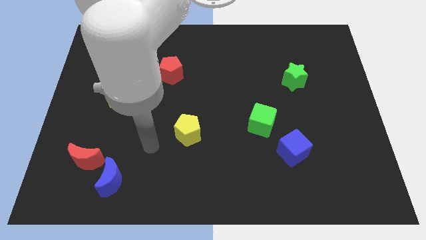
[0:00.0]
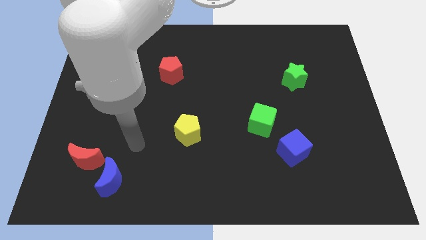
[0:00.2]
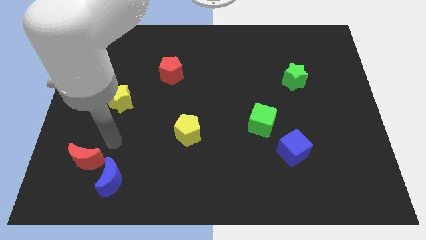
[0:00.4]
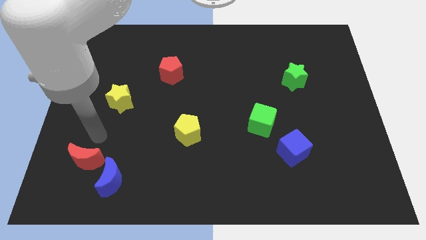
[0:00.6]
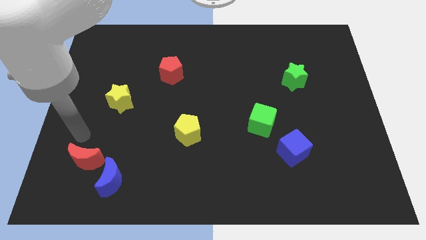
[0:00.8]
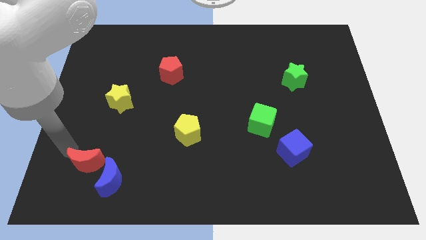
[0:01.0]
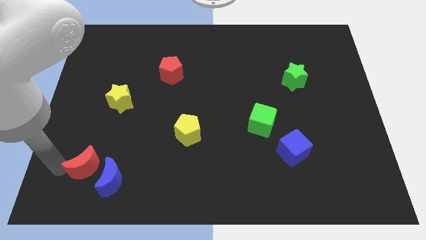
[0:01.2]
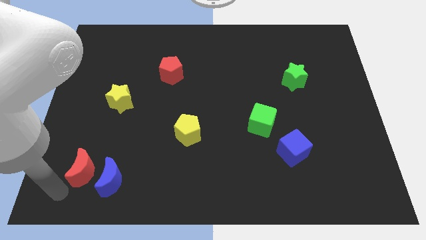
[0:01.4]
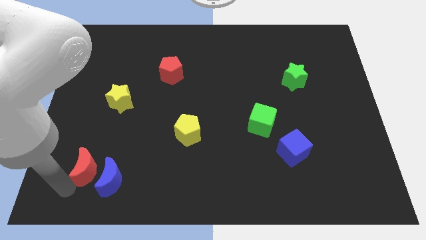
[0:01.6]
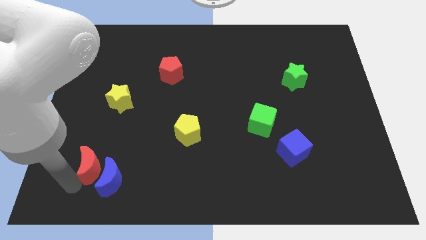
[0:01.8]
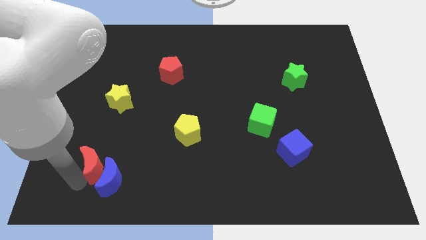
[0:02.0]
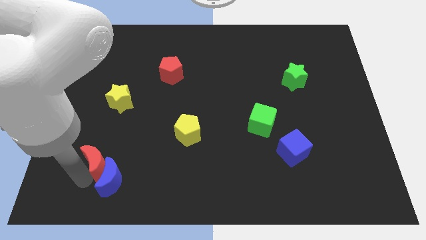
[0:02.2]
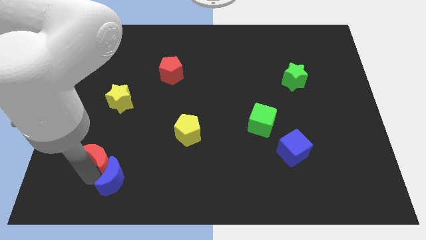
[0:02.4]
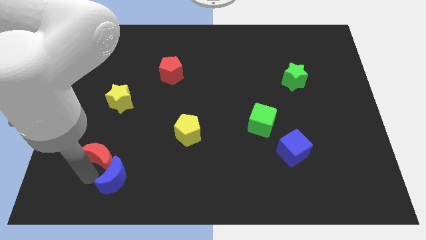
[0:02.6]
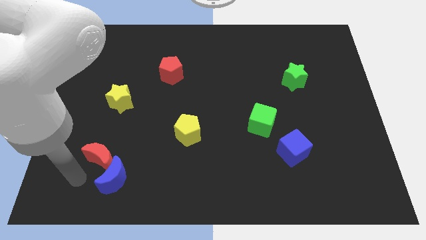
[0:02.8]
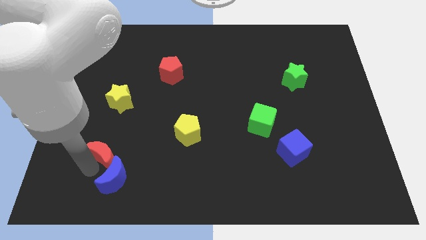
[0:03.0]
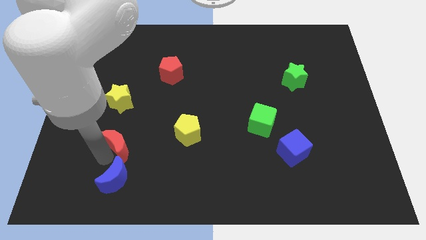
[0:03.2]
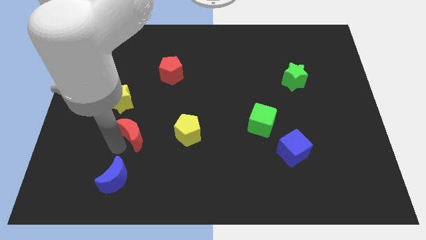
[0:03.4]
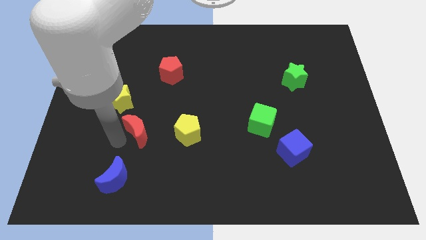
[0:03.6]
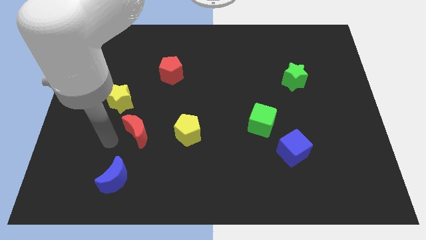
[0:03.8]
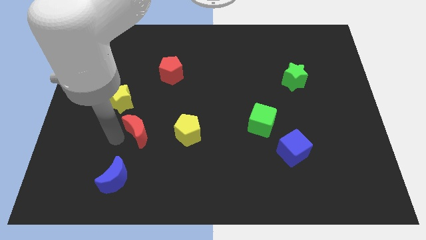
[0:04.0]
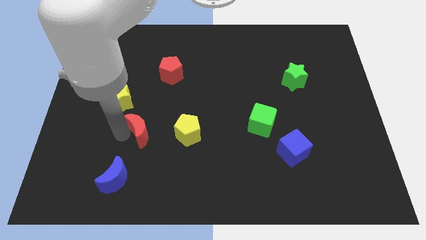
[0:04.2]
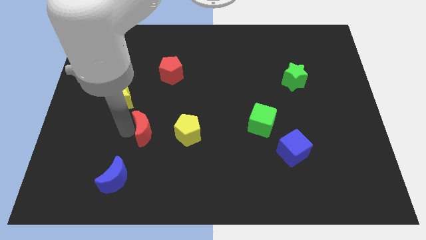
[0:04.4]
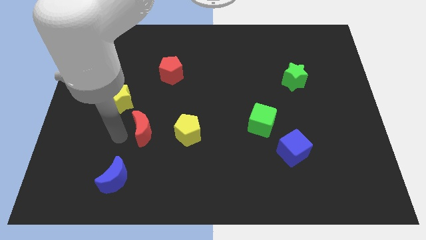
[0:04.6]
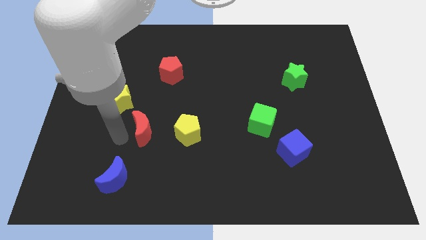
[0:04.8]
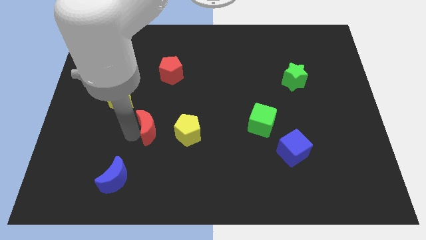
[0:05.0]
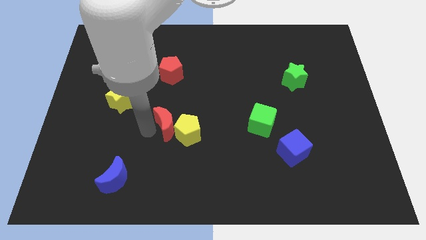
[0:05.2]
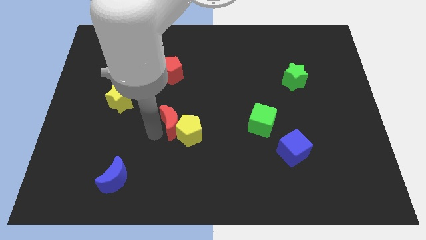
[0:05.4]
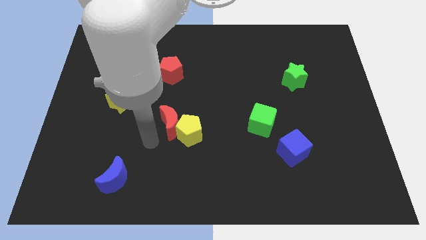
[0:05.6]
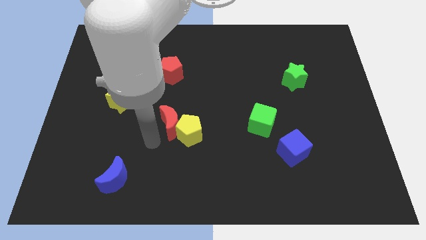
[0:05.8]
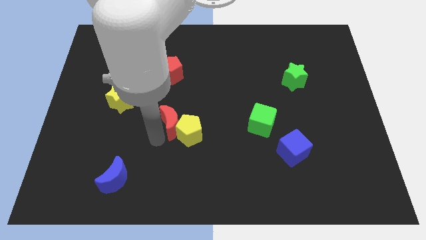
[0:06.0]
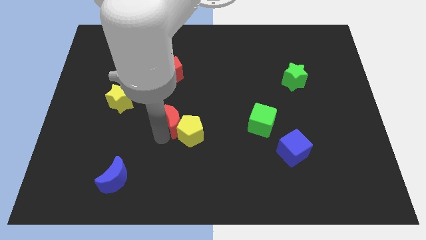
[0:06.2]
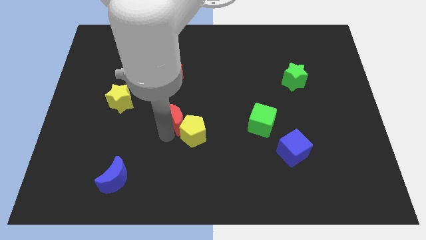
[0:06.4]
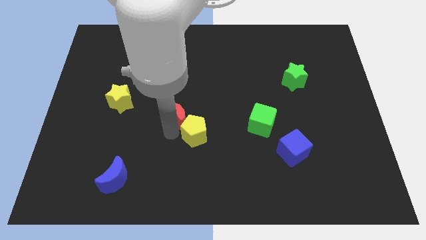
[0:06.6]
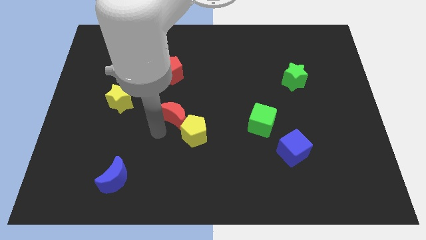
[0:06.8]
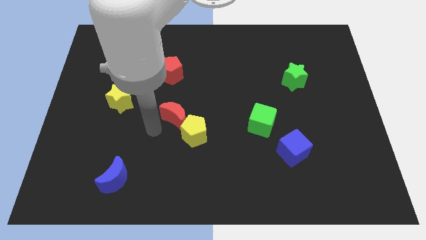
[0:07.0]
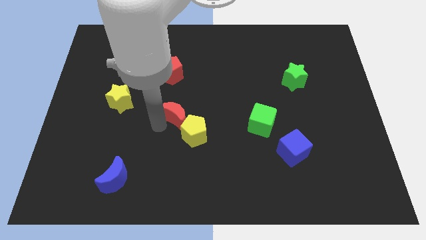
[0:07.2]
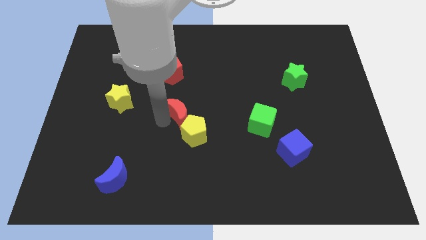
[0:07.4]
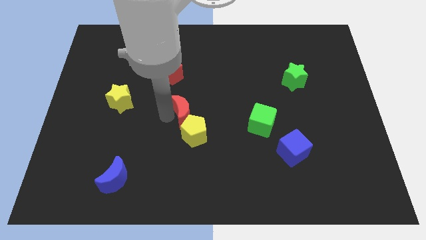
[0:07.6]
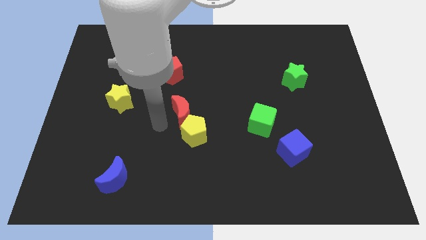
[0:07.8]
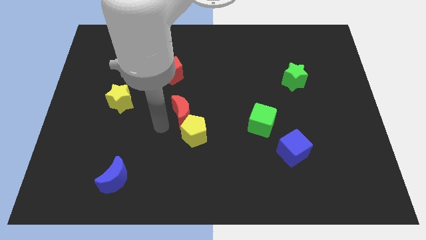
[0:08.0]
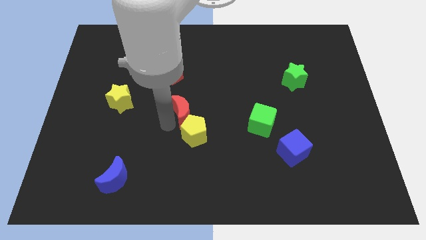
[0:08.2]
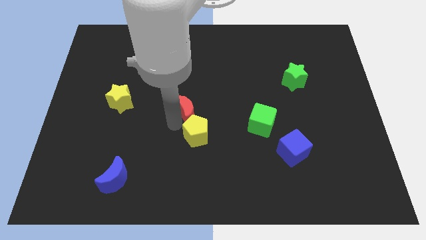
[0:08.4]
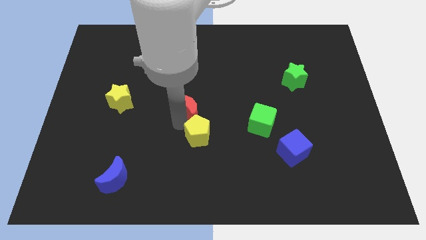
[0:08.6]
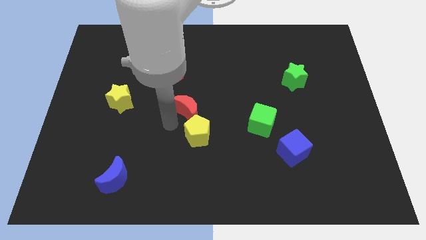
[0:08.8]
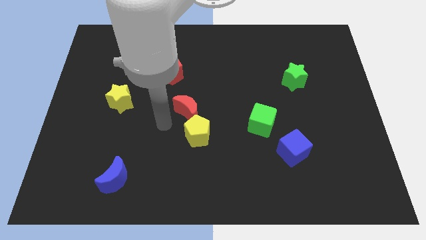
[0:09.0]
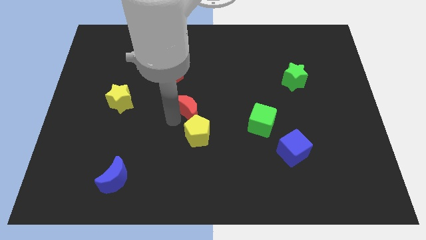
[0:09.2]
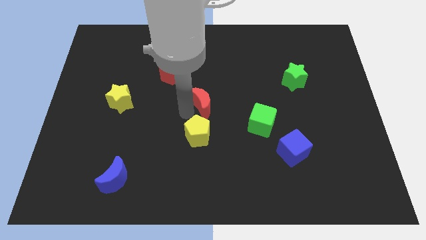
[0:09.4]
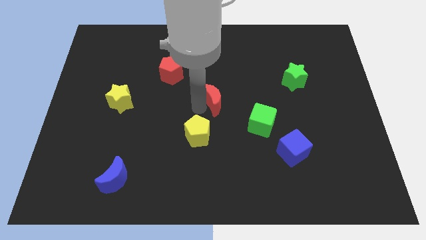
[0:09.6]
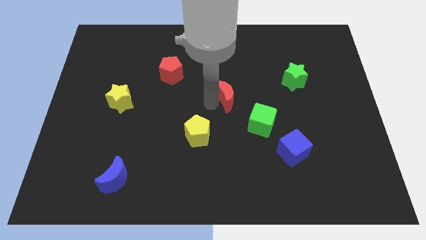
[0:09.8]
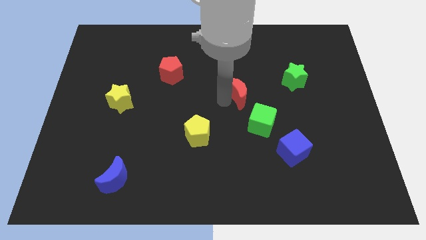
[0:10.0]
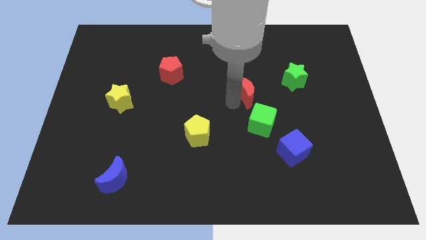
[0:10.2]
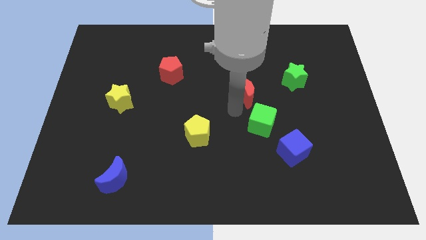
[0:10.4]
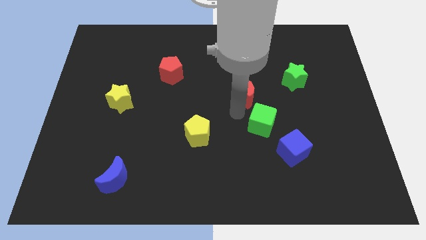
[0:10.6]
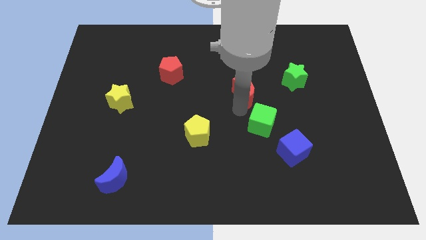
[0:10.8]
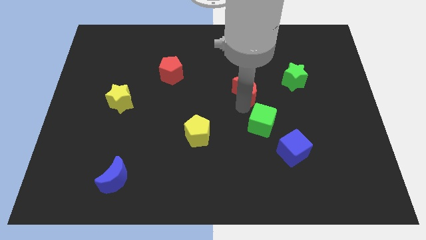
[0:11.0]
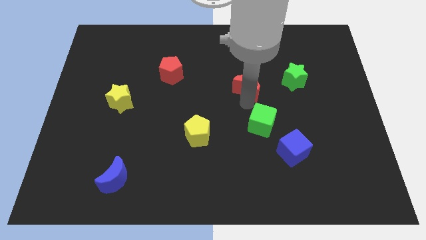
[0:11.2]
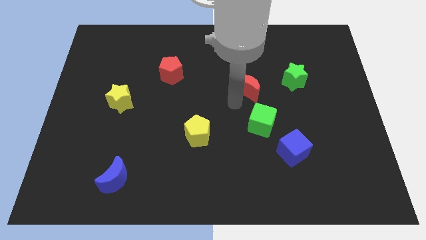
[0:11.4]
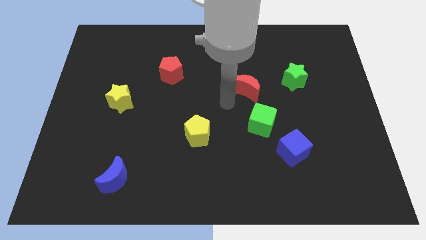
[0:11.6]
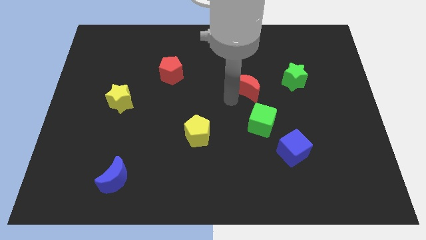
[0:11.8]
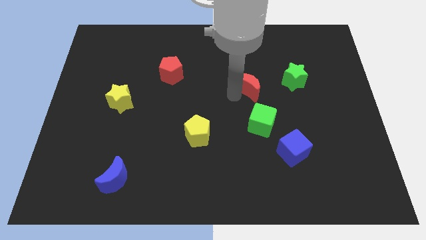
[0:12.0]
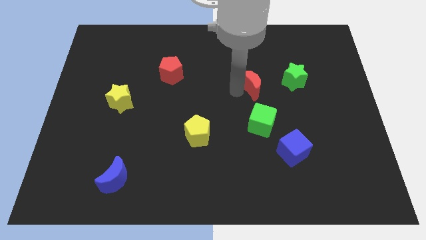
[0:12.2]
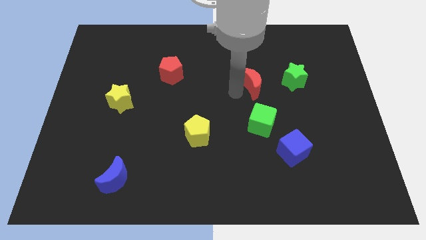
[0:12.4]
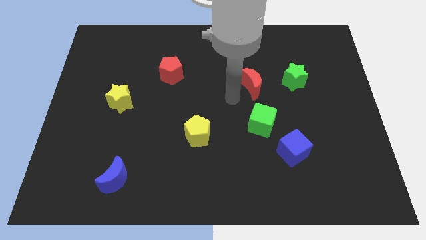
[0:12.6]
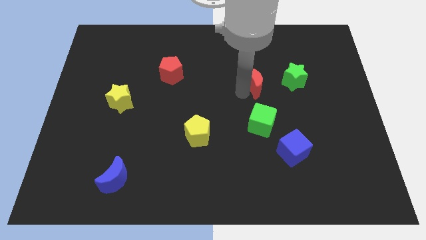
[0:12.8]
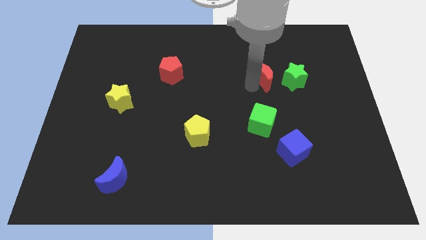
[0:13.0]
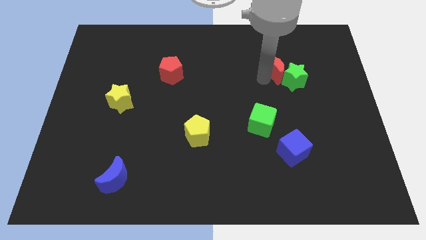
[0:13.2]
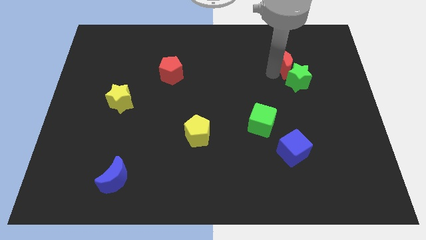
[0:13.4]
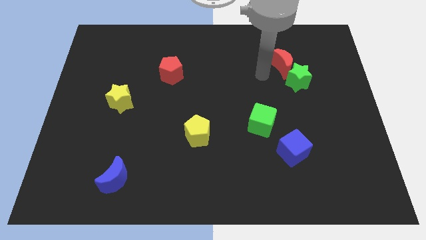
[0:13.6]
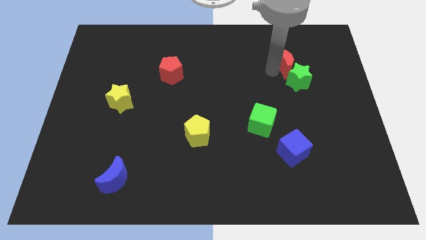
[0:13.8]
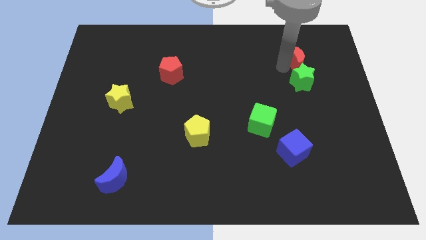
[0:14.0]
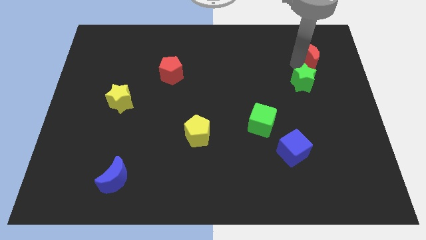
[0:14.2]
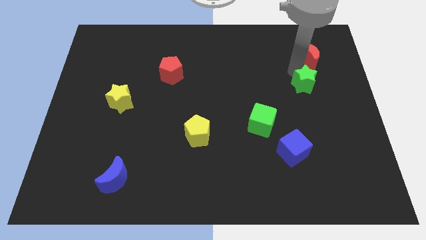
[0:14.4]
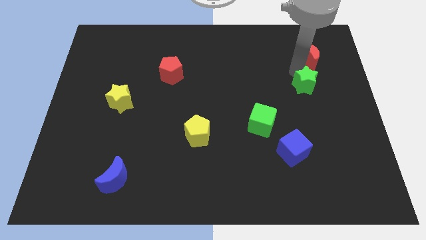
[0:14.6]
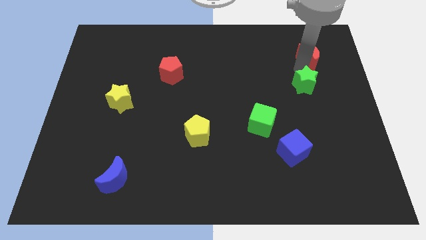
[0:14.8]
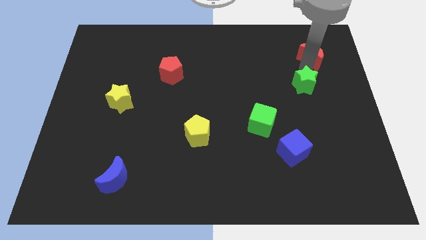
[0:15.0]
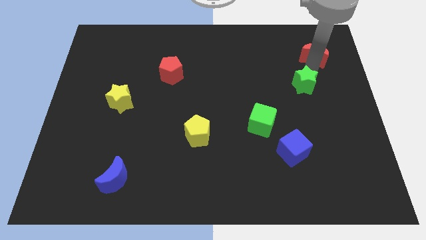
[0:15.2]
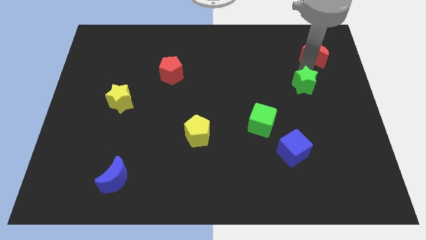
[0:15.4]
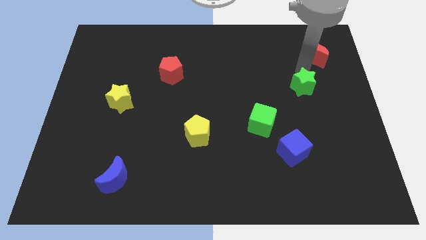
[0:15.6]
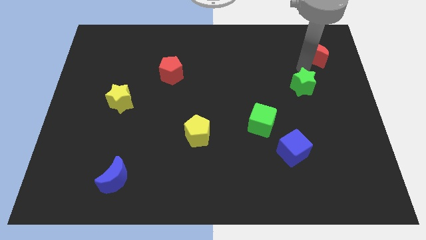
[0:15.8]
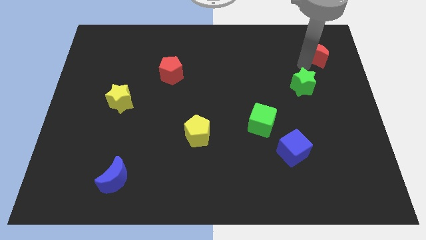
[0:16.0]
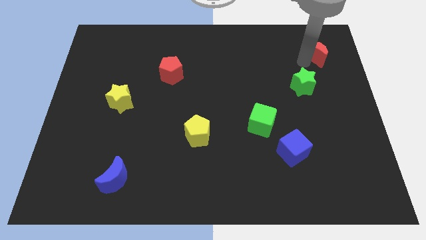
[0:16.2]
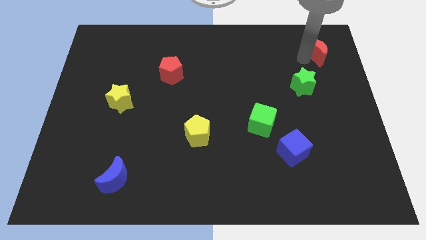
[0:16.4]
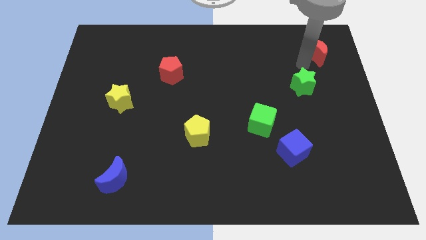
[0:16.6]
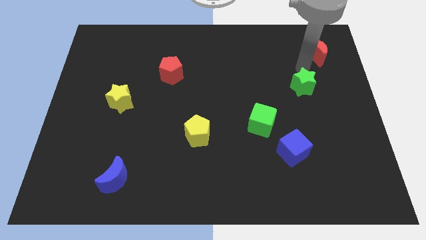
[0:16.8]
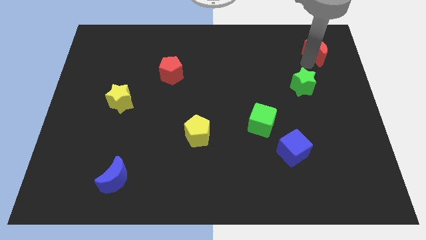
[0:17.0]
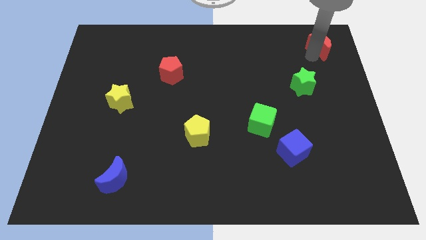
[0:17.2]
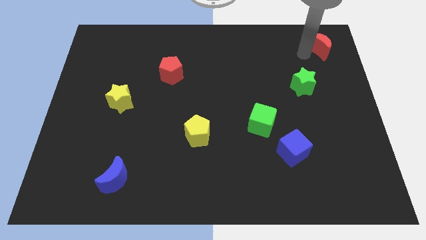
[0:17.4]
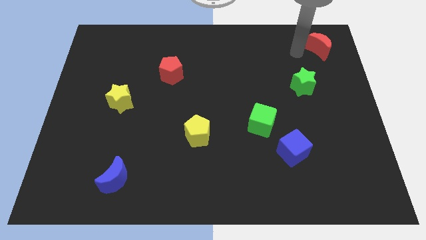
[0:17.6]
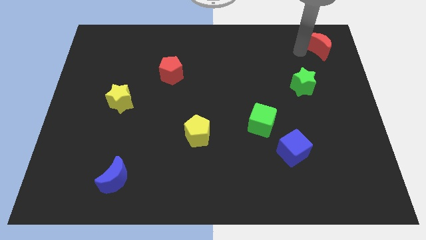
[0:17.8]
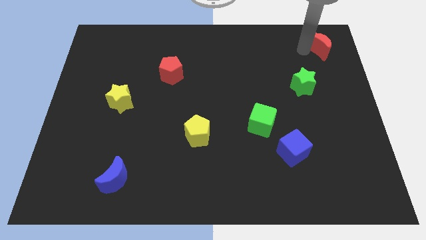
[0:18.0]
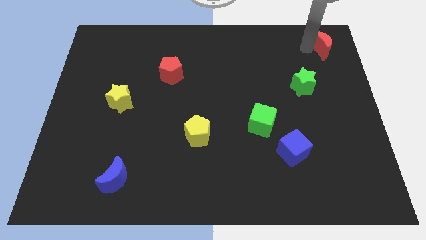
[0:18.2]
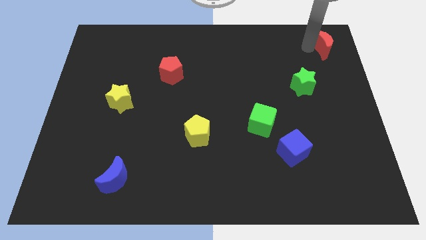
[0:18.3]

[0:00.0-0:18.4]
slide the red moon to the top right of the board
